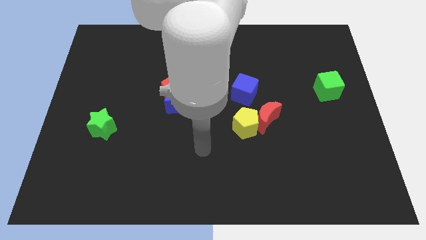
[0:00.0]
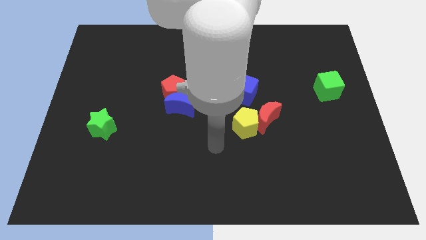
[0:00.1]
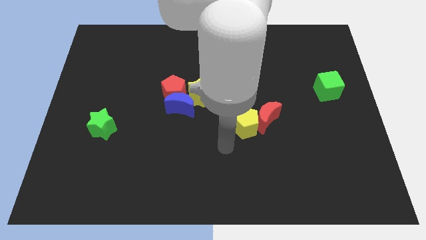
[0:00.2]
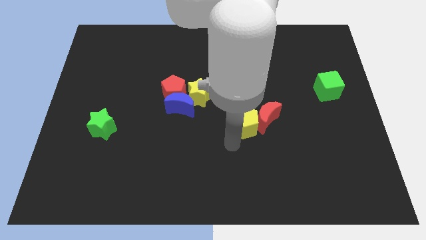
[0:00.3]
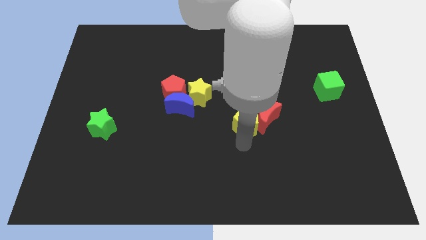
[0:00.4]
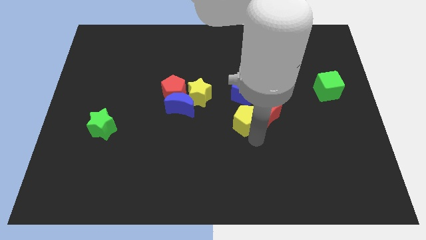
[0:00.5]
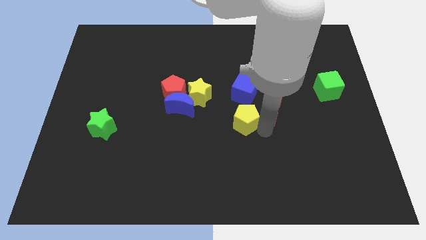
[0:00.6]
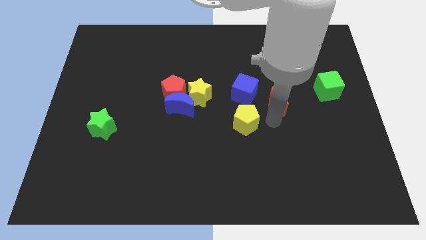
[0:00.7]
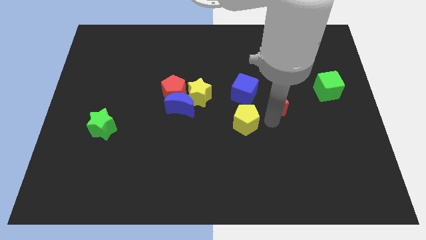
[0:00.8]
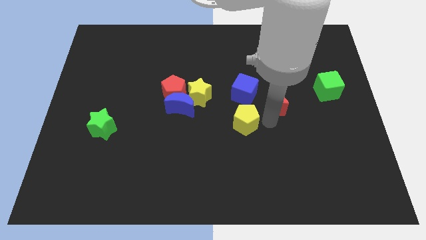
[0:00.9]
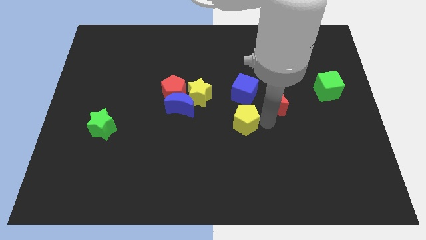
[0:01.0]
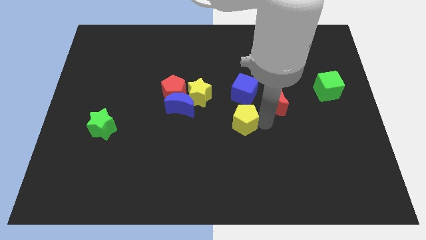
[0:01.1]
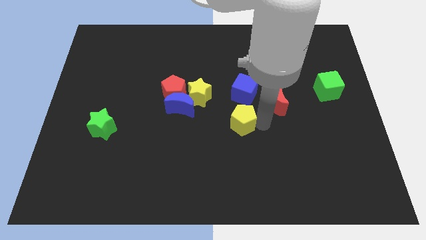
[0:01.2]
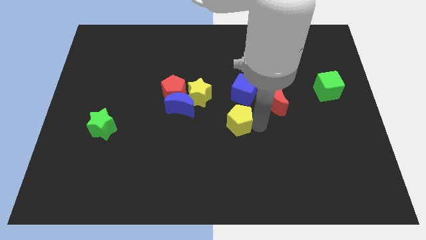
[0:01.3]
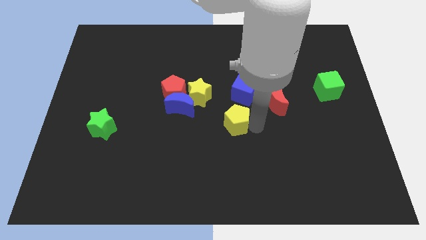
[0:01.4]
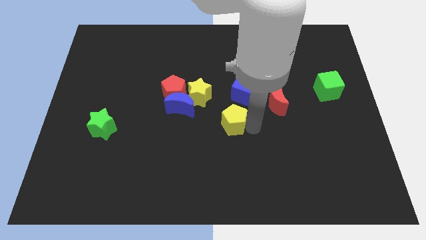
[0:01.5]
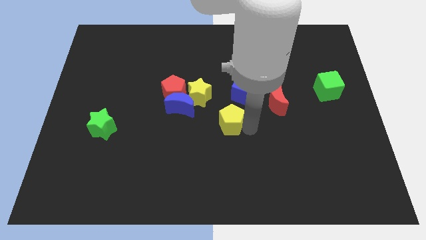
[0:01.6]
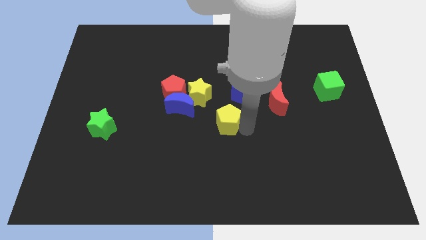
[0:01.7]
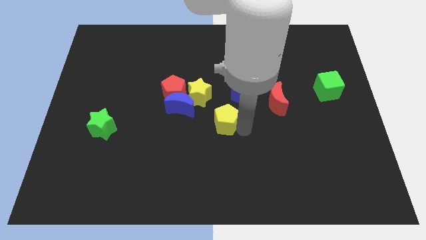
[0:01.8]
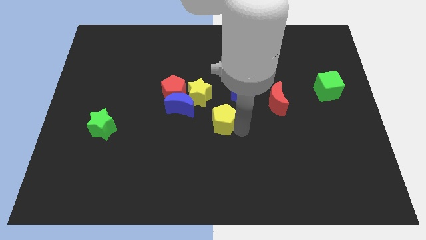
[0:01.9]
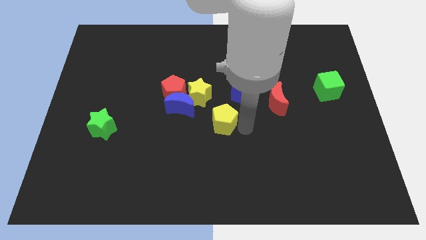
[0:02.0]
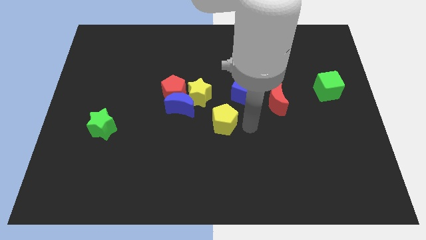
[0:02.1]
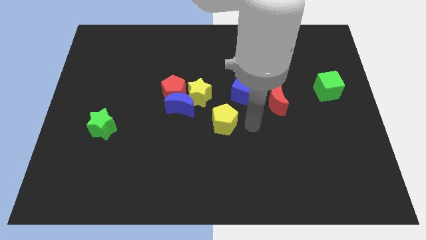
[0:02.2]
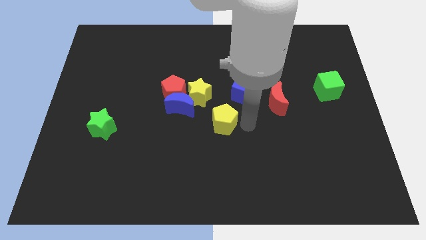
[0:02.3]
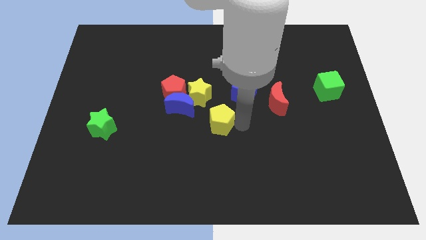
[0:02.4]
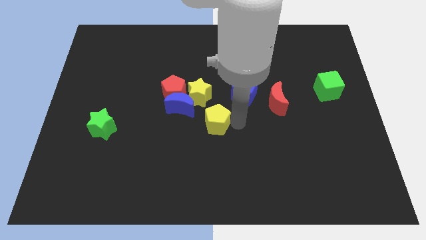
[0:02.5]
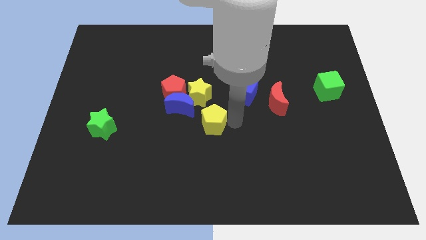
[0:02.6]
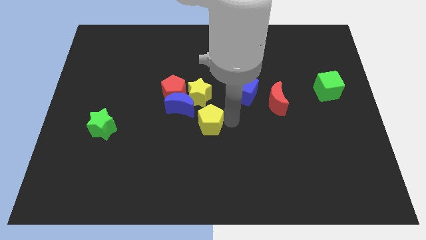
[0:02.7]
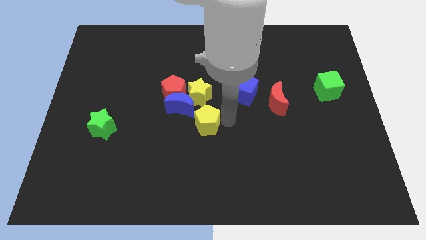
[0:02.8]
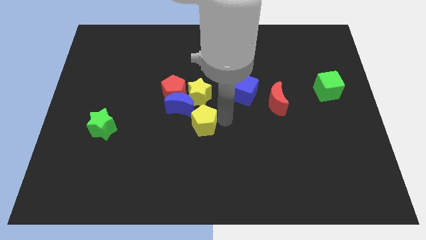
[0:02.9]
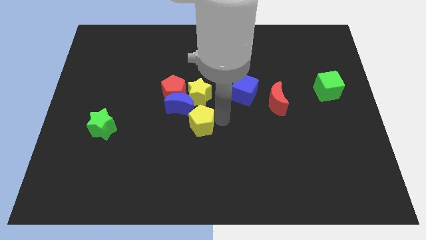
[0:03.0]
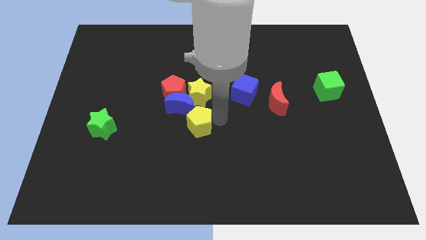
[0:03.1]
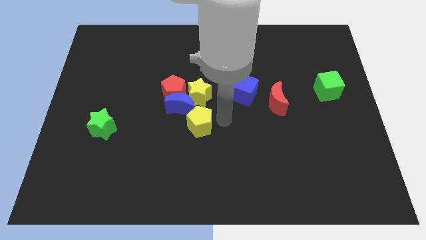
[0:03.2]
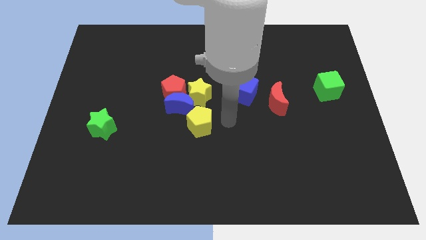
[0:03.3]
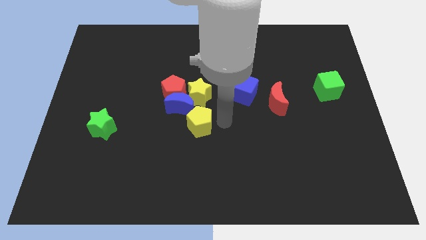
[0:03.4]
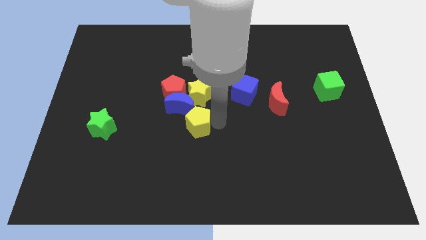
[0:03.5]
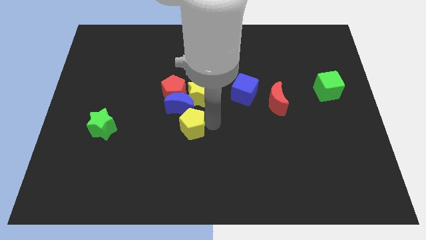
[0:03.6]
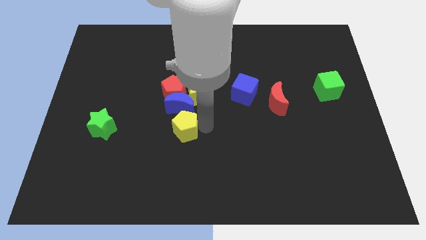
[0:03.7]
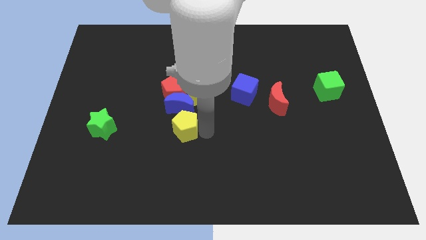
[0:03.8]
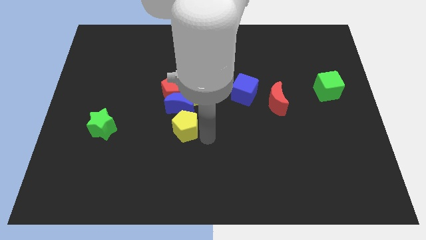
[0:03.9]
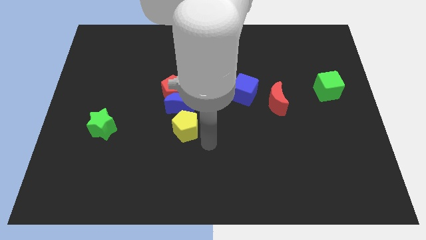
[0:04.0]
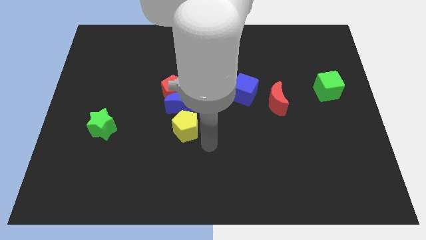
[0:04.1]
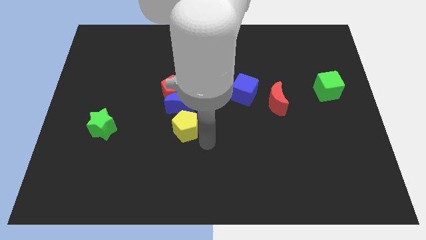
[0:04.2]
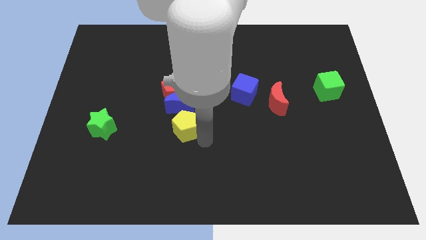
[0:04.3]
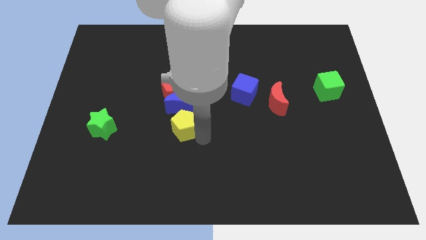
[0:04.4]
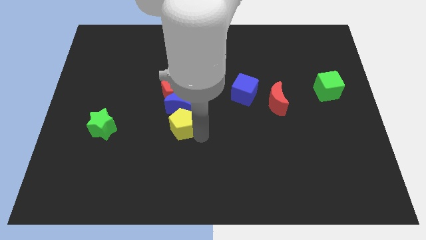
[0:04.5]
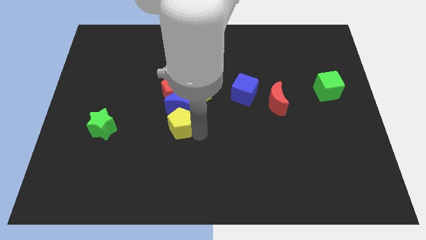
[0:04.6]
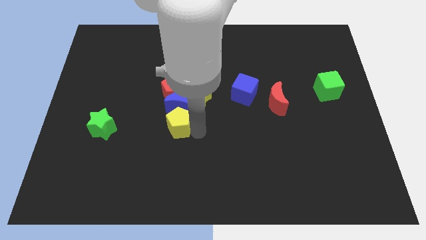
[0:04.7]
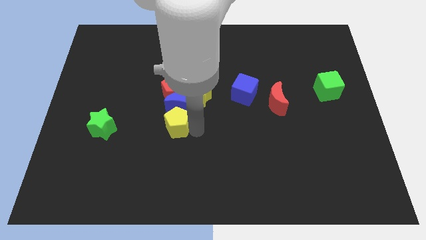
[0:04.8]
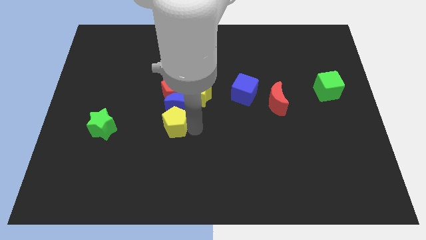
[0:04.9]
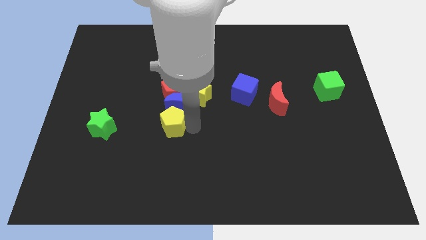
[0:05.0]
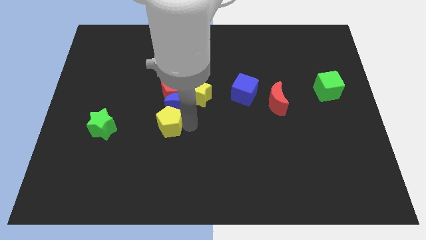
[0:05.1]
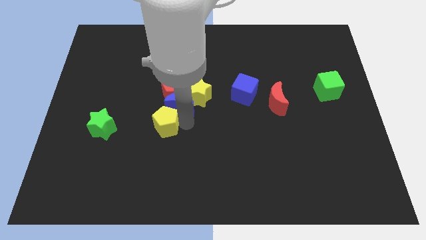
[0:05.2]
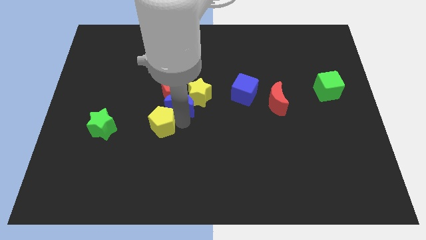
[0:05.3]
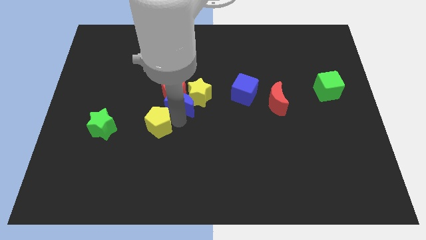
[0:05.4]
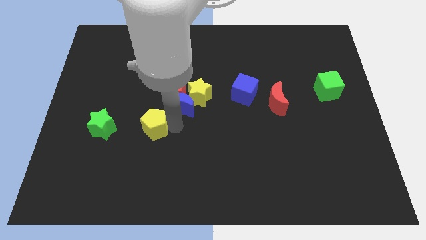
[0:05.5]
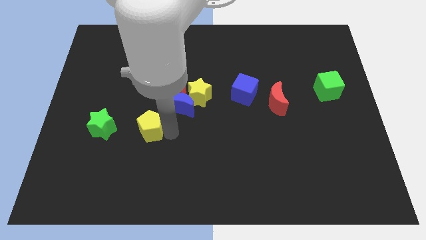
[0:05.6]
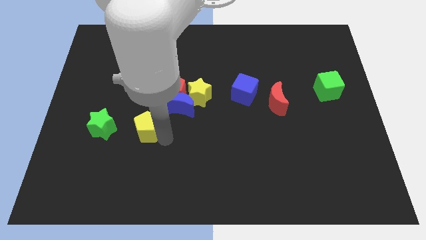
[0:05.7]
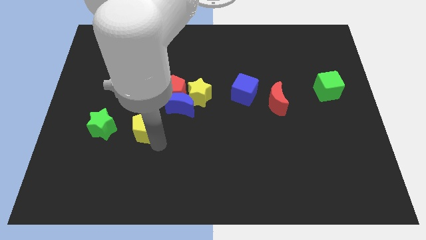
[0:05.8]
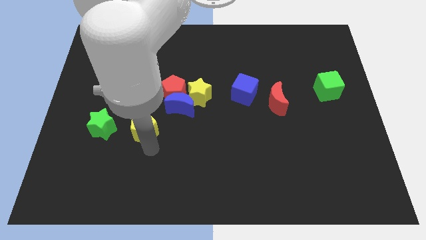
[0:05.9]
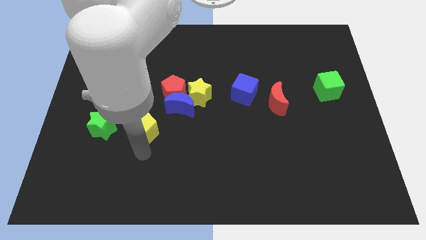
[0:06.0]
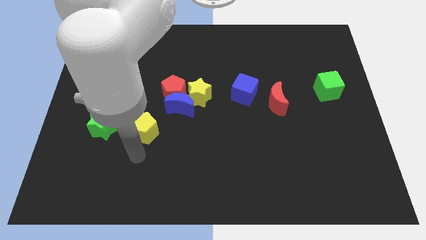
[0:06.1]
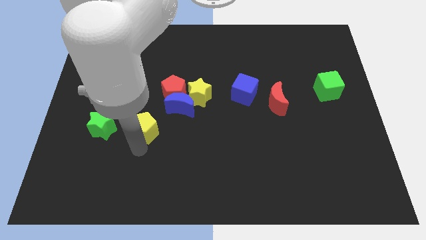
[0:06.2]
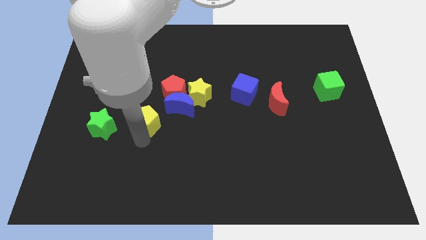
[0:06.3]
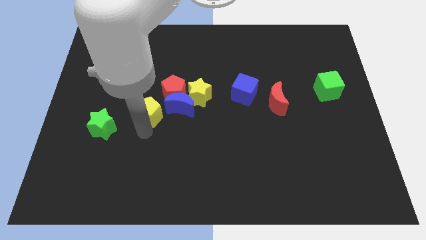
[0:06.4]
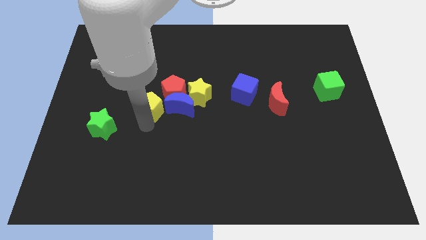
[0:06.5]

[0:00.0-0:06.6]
push the yellow pentagon just left of the yellow star
